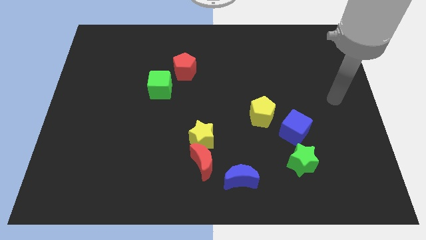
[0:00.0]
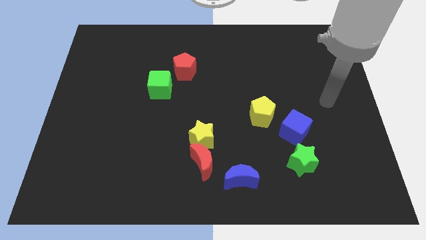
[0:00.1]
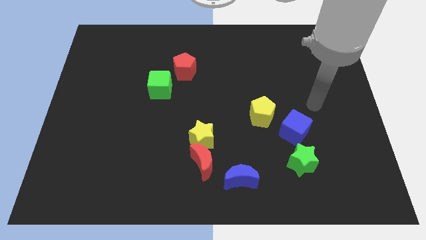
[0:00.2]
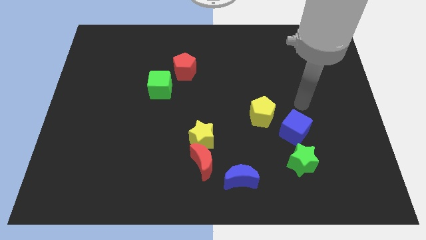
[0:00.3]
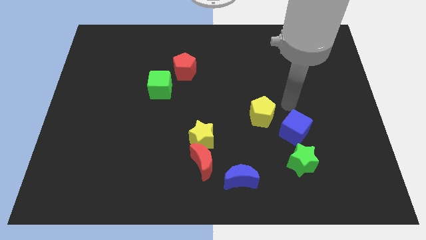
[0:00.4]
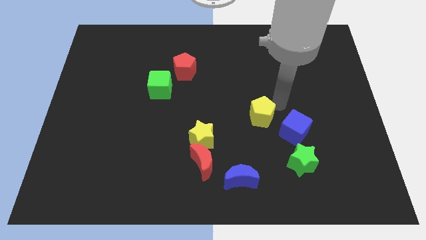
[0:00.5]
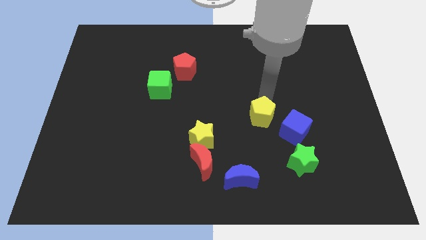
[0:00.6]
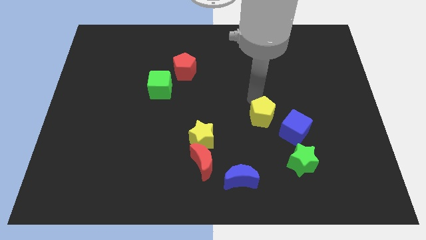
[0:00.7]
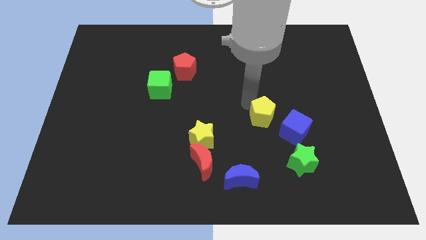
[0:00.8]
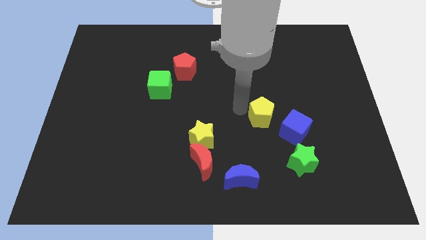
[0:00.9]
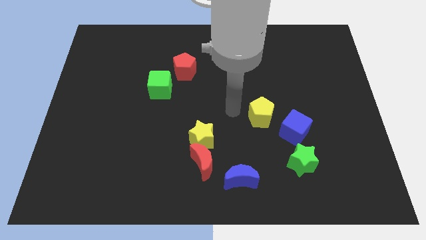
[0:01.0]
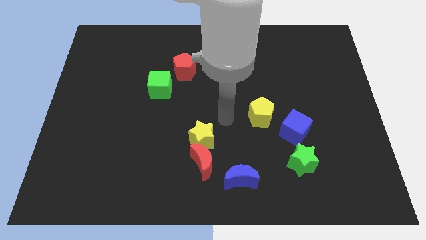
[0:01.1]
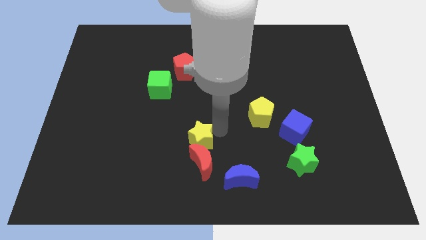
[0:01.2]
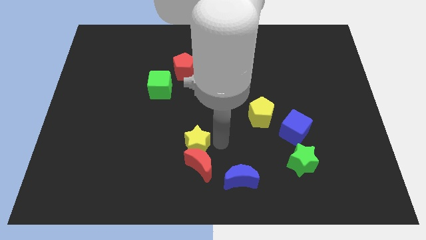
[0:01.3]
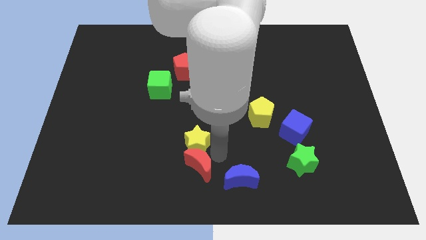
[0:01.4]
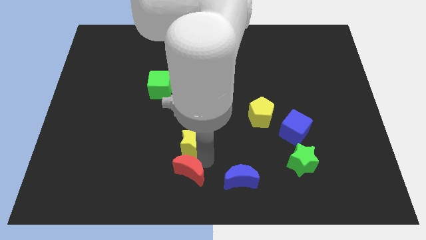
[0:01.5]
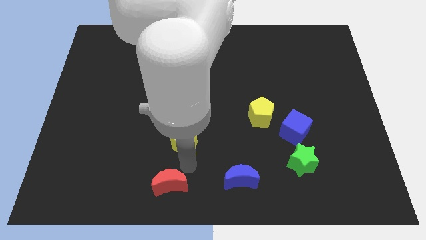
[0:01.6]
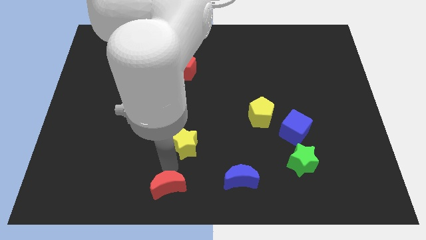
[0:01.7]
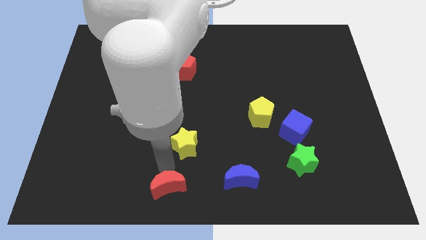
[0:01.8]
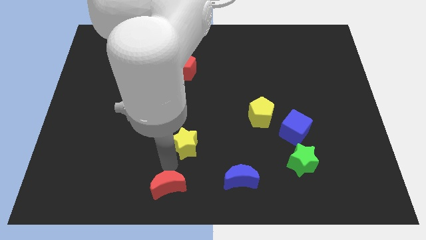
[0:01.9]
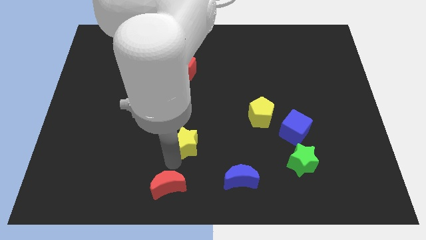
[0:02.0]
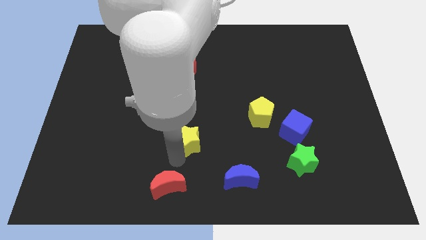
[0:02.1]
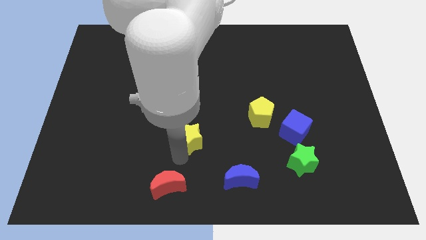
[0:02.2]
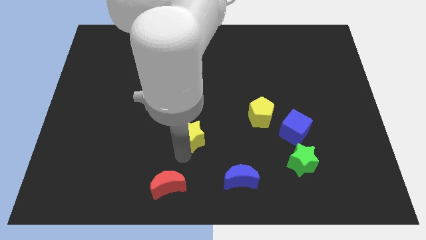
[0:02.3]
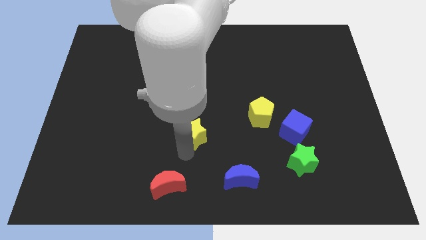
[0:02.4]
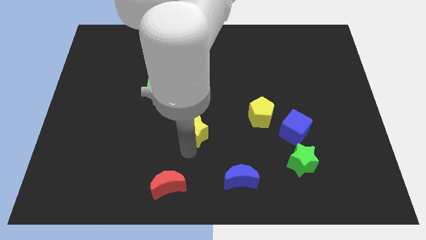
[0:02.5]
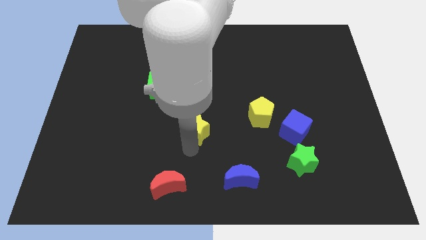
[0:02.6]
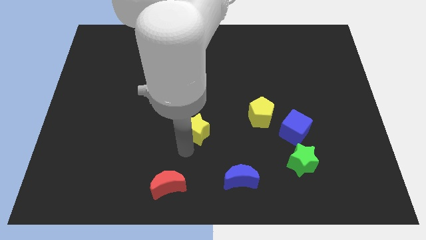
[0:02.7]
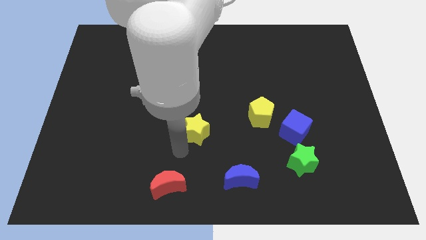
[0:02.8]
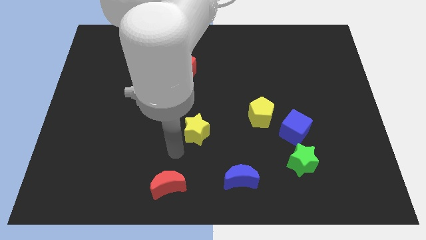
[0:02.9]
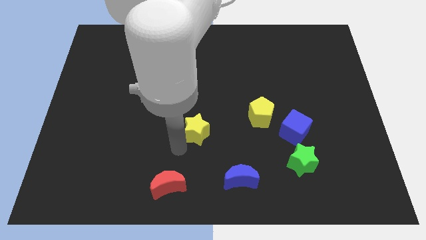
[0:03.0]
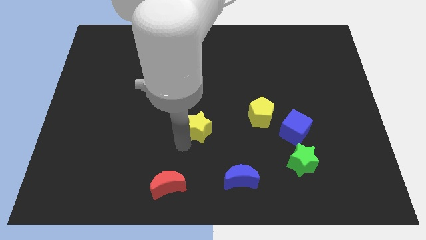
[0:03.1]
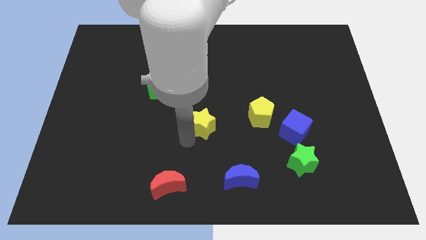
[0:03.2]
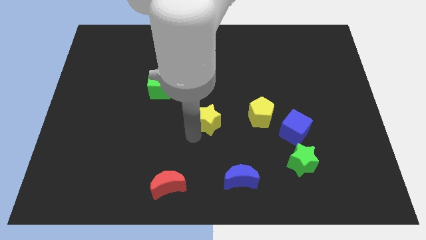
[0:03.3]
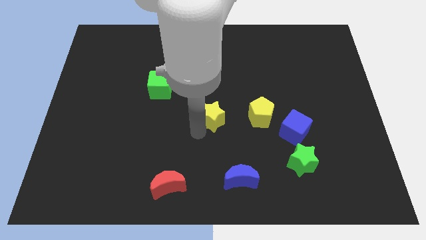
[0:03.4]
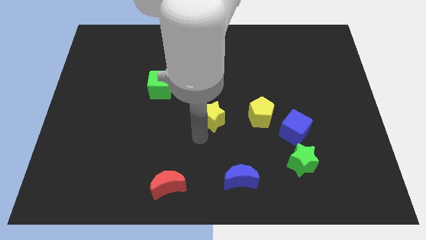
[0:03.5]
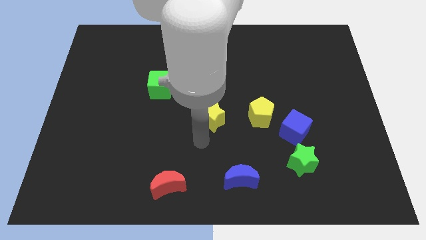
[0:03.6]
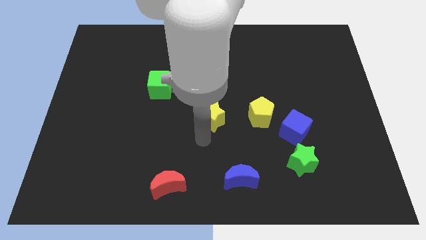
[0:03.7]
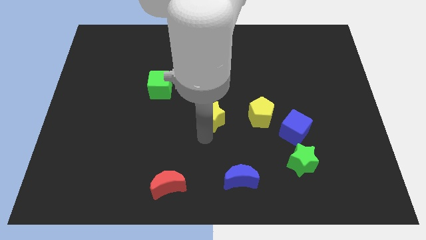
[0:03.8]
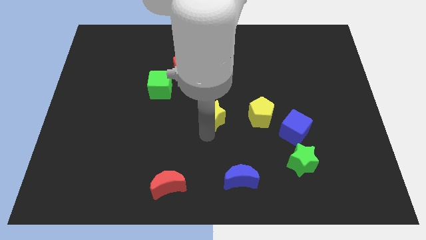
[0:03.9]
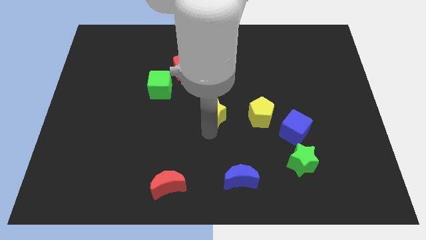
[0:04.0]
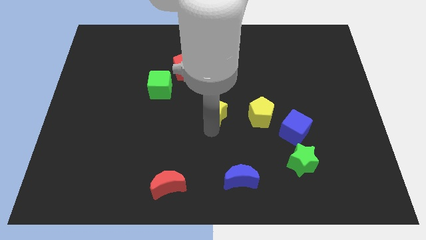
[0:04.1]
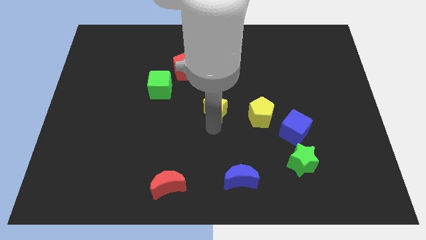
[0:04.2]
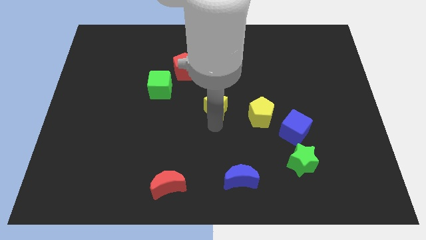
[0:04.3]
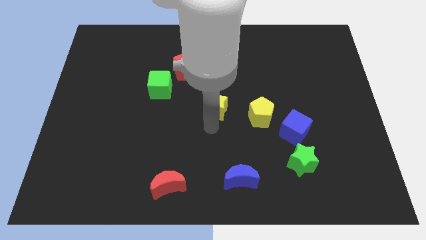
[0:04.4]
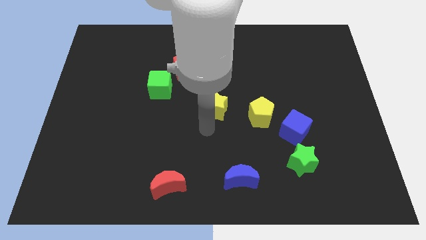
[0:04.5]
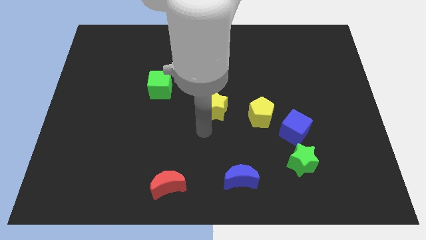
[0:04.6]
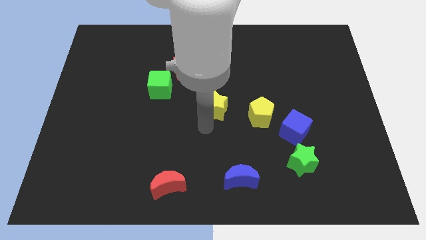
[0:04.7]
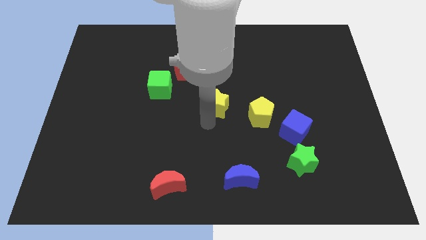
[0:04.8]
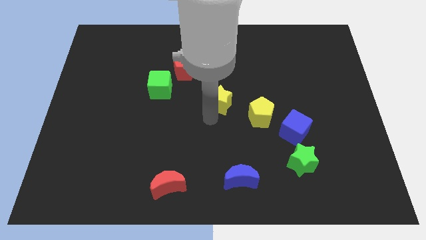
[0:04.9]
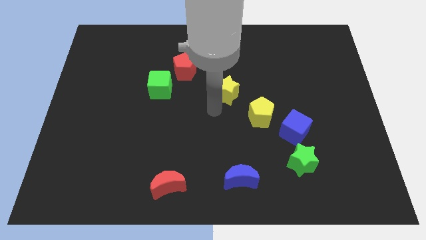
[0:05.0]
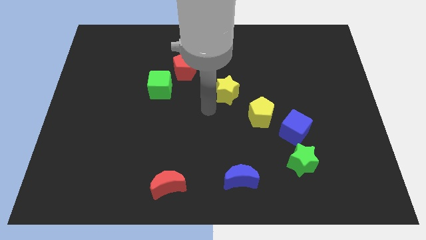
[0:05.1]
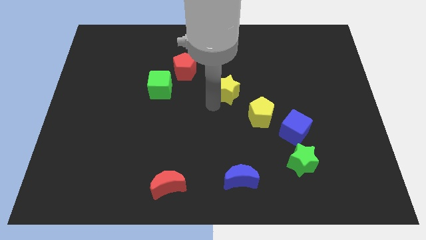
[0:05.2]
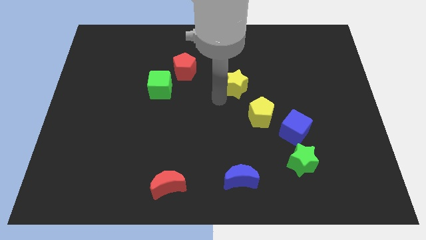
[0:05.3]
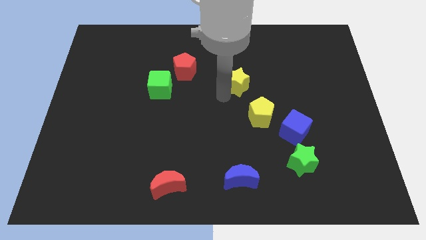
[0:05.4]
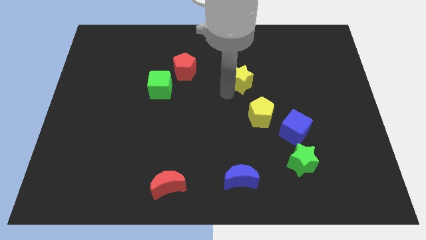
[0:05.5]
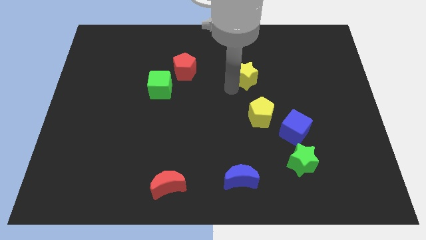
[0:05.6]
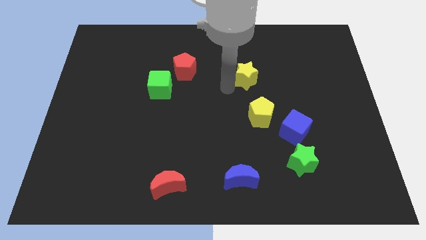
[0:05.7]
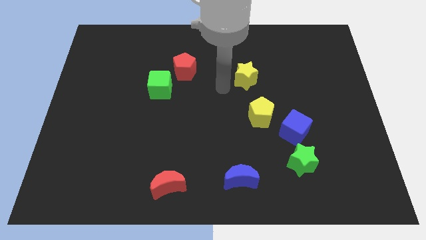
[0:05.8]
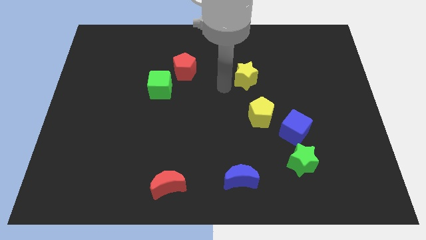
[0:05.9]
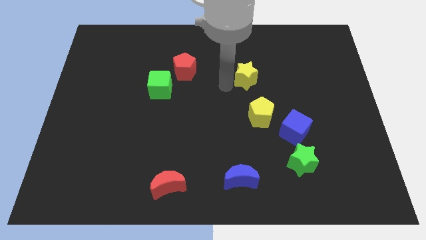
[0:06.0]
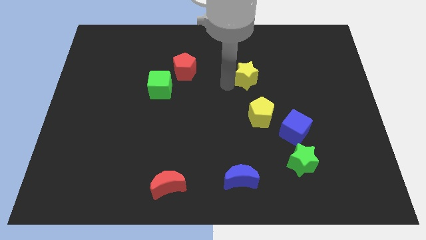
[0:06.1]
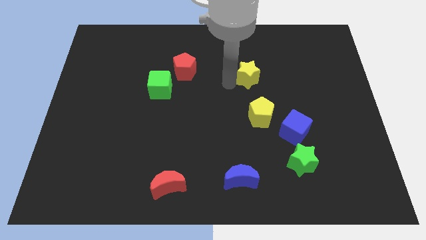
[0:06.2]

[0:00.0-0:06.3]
slide the yellow star diagonally up and right

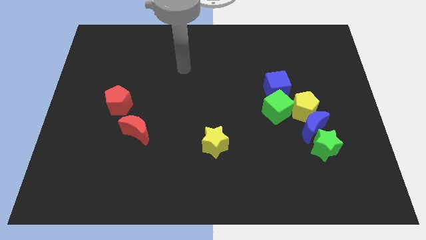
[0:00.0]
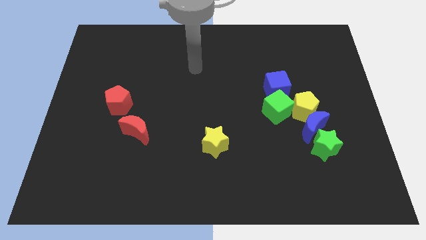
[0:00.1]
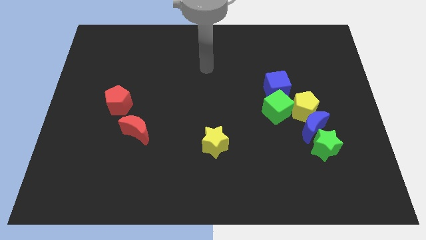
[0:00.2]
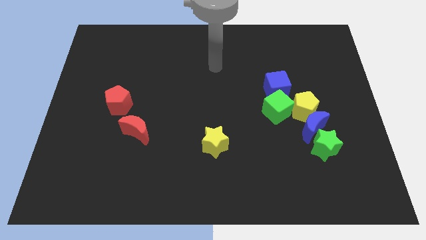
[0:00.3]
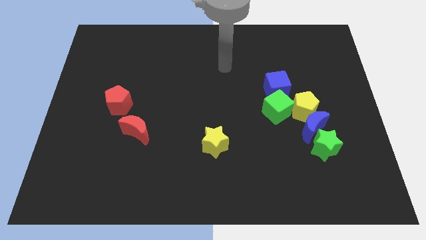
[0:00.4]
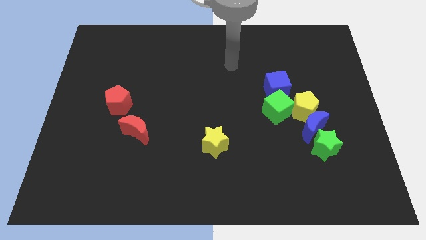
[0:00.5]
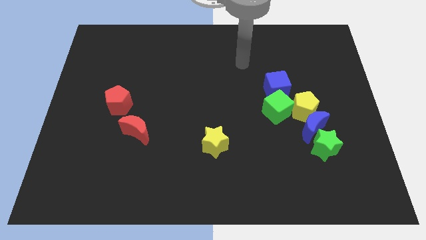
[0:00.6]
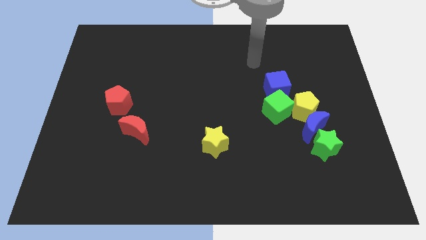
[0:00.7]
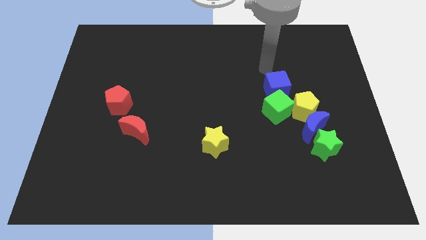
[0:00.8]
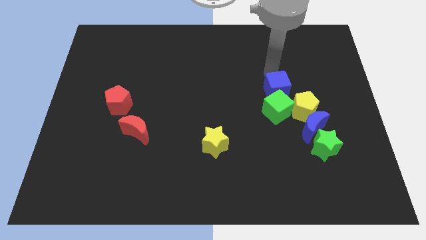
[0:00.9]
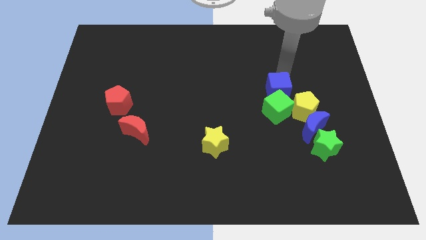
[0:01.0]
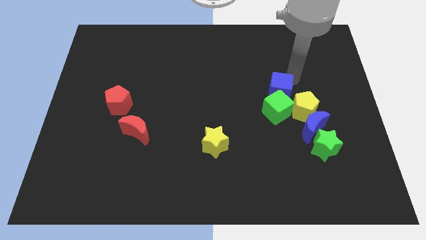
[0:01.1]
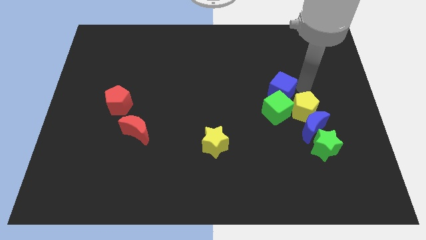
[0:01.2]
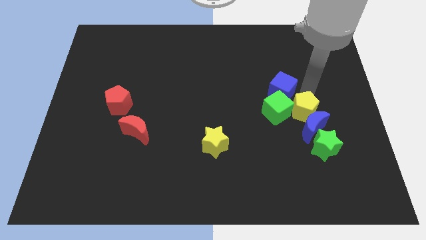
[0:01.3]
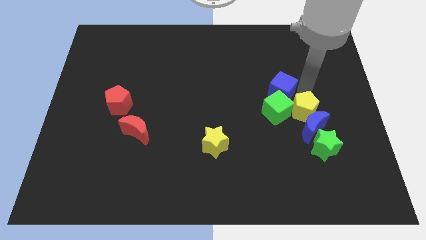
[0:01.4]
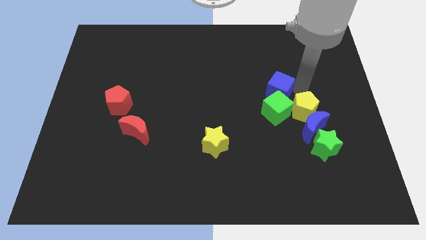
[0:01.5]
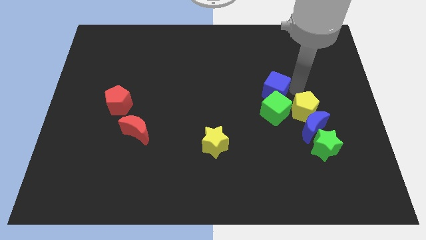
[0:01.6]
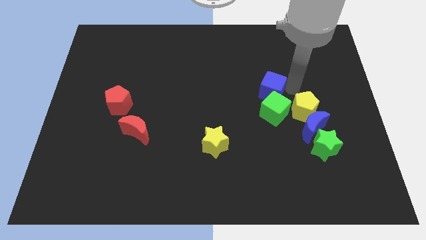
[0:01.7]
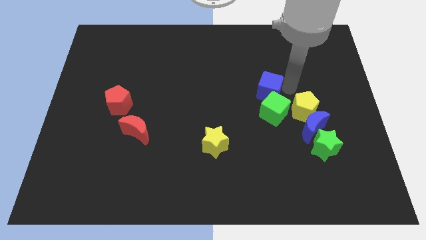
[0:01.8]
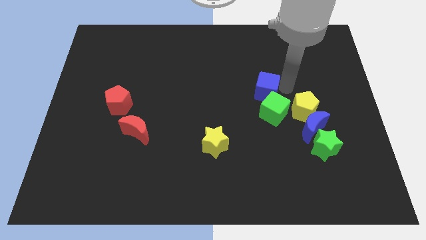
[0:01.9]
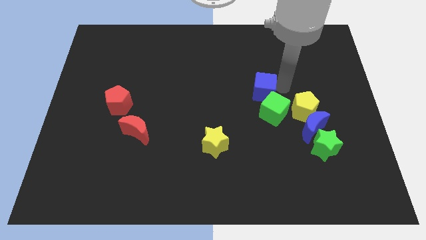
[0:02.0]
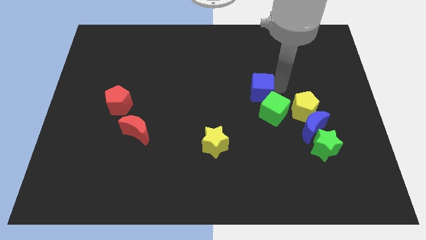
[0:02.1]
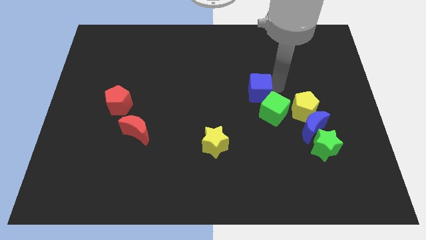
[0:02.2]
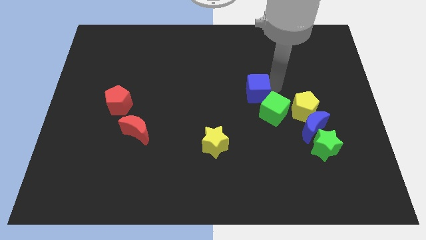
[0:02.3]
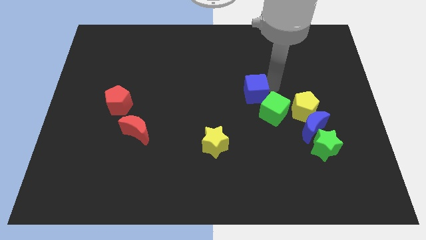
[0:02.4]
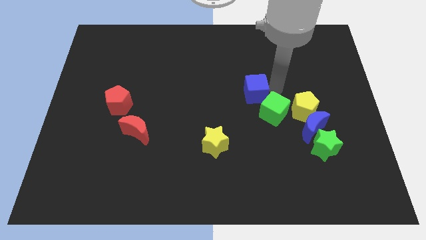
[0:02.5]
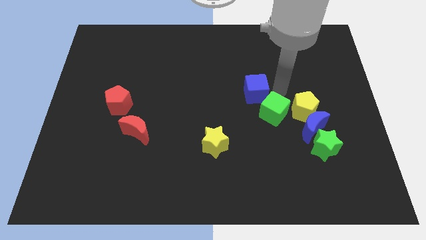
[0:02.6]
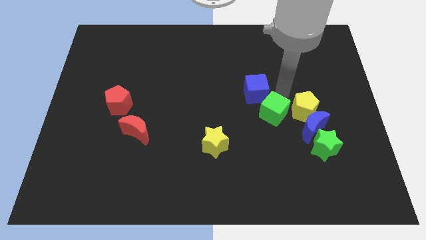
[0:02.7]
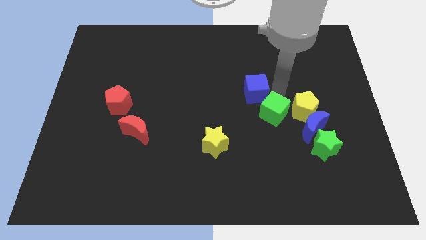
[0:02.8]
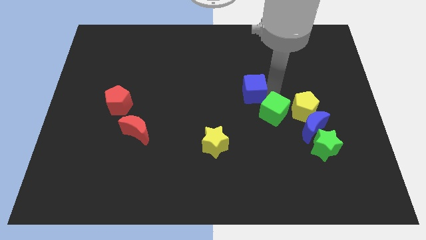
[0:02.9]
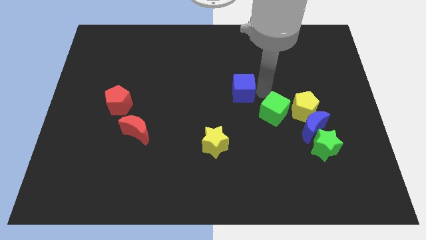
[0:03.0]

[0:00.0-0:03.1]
push the blue cube somewhat to the left
